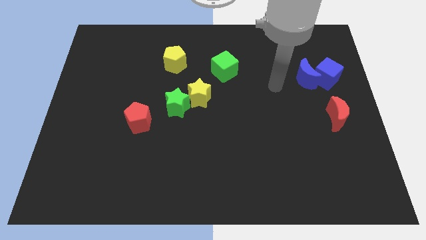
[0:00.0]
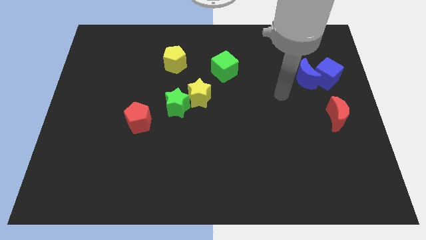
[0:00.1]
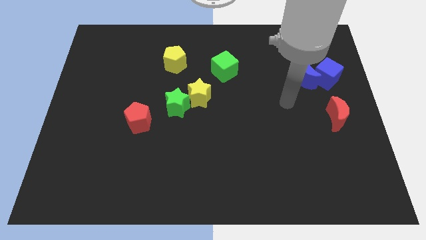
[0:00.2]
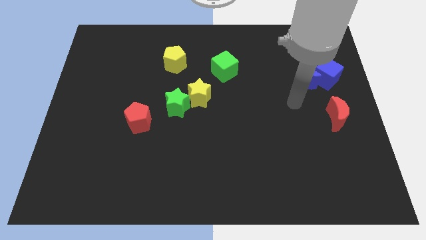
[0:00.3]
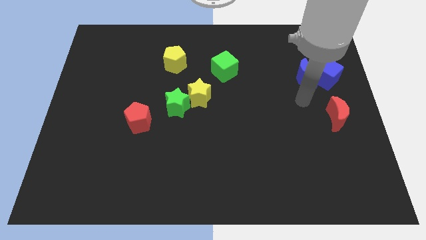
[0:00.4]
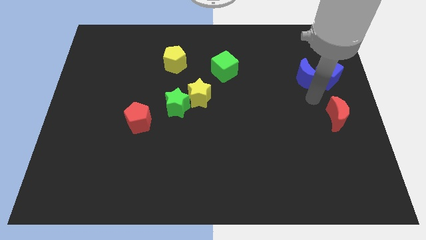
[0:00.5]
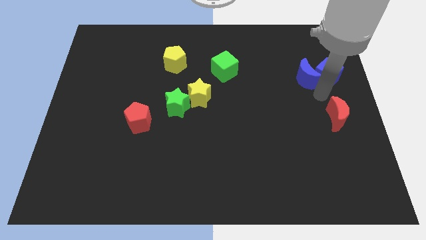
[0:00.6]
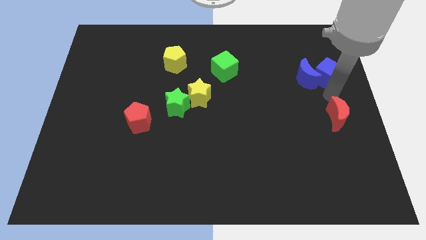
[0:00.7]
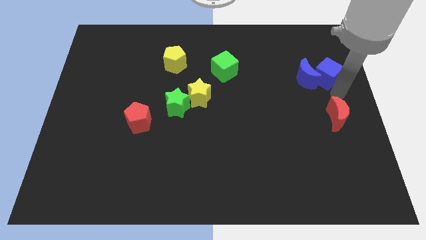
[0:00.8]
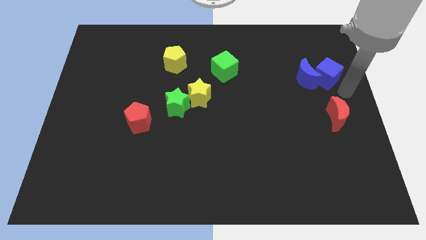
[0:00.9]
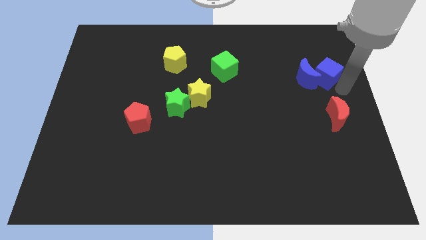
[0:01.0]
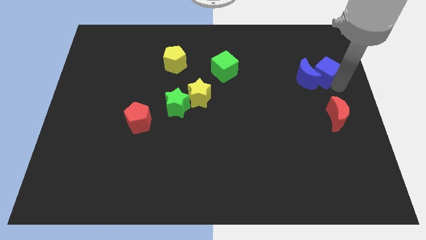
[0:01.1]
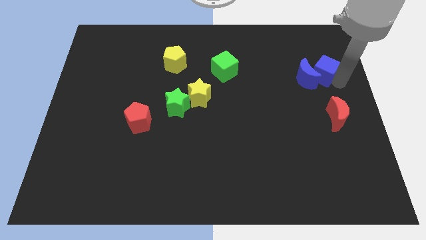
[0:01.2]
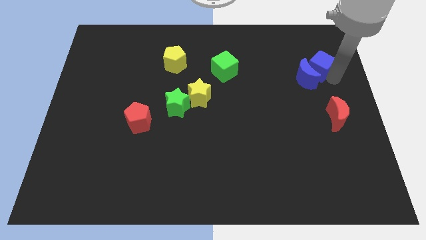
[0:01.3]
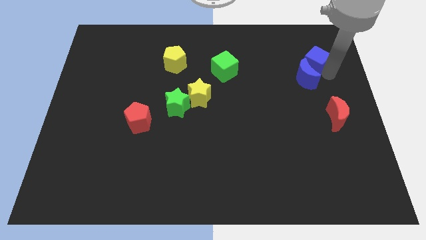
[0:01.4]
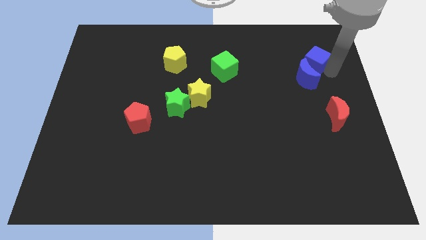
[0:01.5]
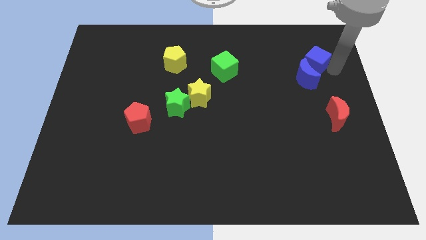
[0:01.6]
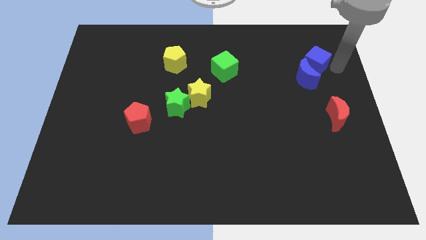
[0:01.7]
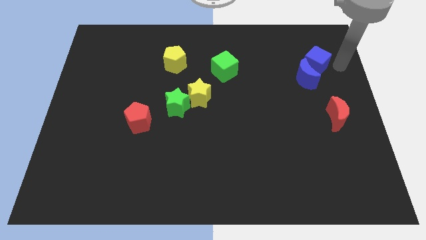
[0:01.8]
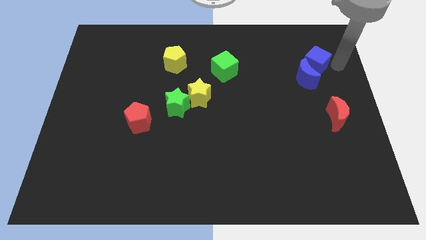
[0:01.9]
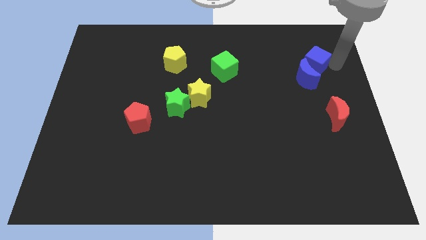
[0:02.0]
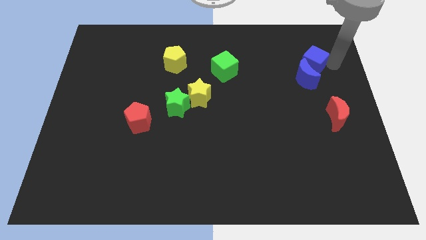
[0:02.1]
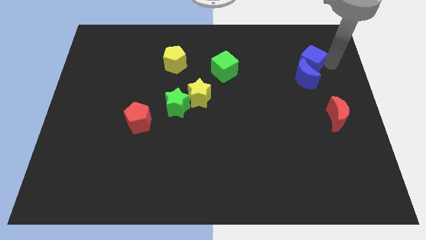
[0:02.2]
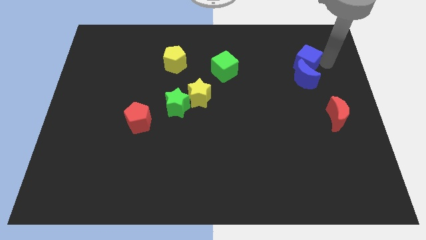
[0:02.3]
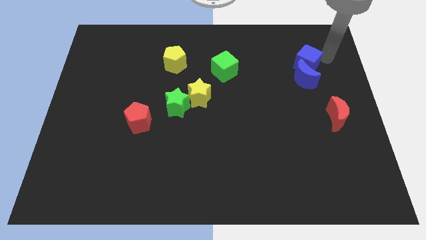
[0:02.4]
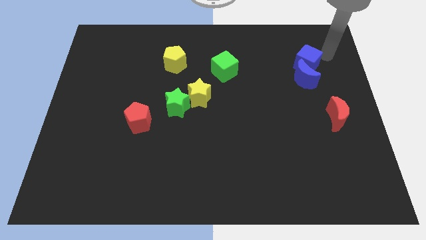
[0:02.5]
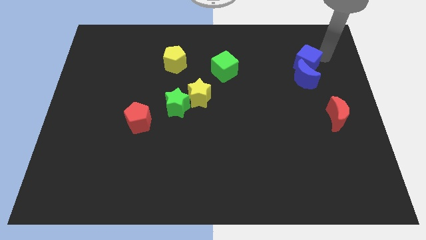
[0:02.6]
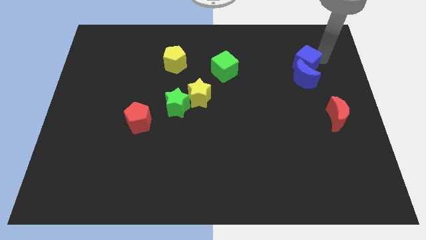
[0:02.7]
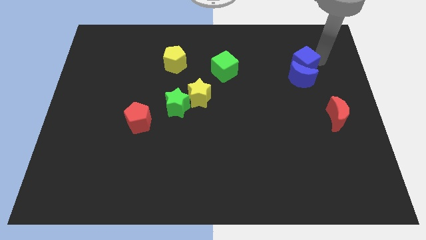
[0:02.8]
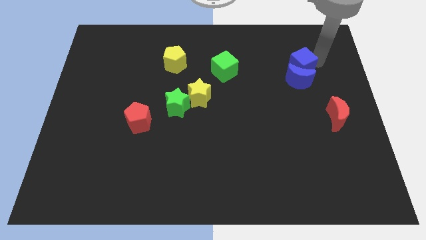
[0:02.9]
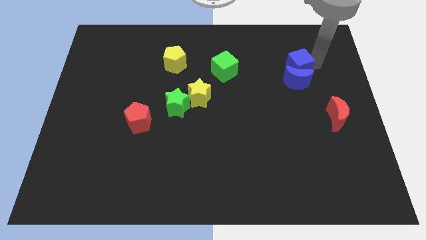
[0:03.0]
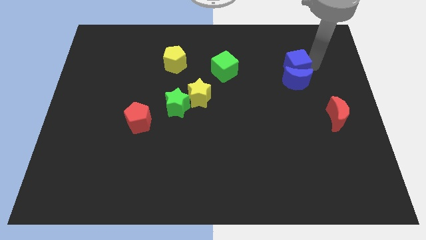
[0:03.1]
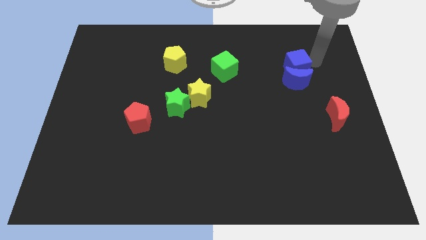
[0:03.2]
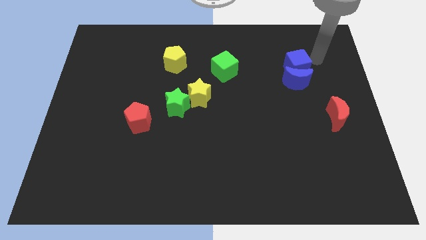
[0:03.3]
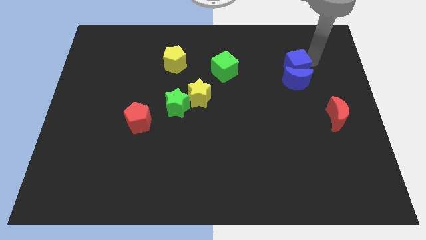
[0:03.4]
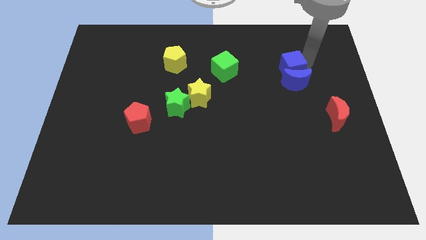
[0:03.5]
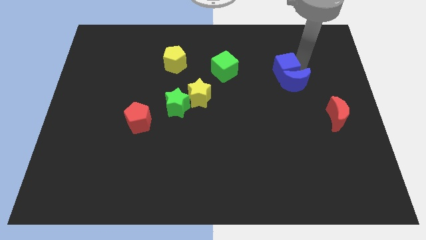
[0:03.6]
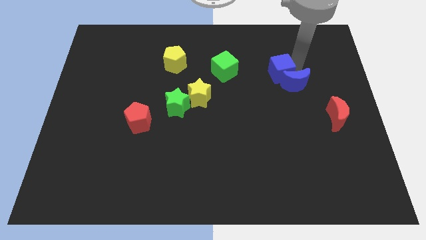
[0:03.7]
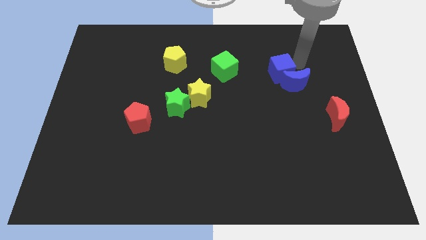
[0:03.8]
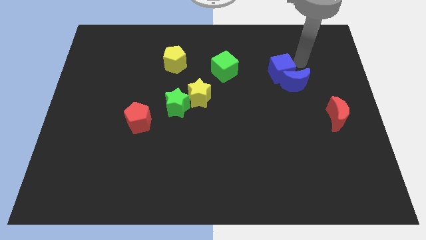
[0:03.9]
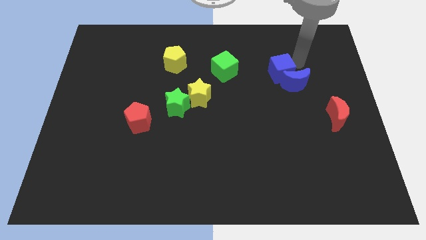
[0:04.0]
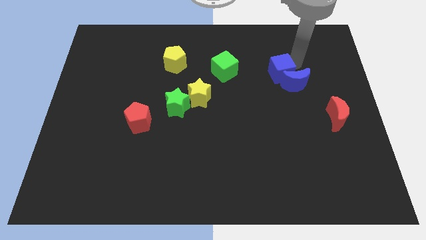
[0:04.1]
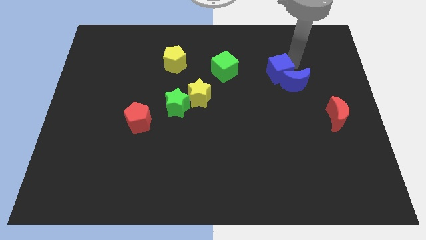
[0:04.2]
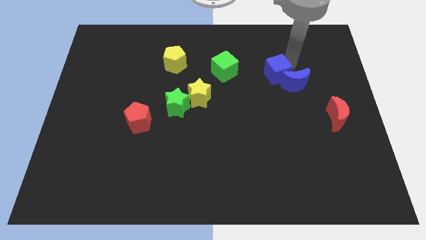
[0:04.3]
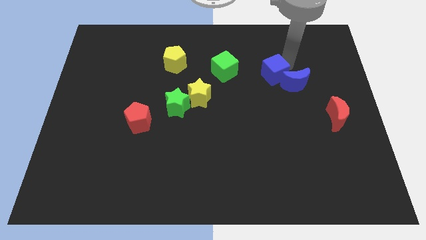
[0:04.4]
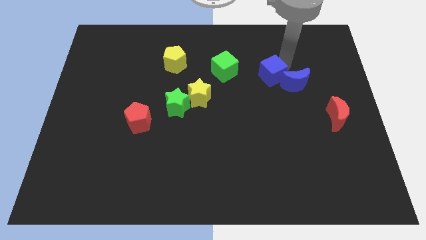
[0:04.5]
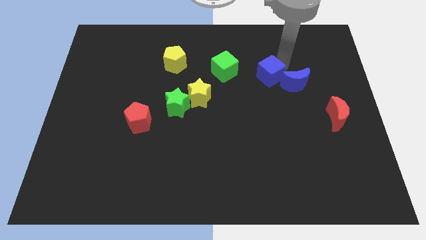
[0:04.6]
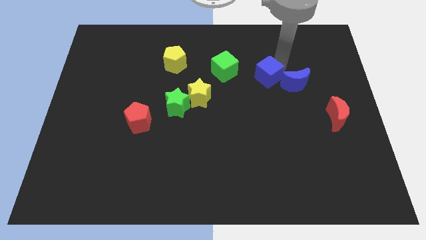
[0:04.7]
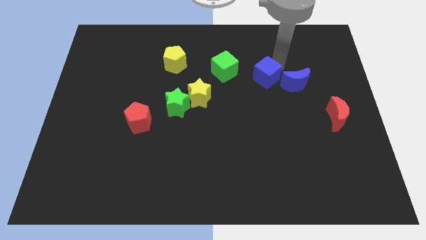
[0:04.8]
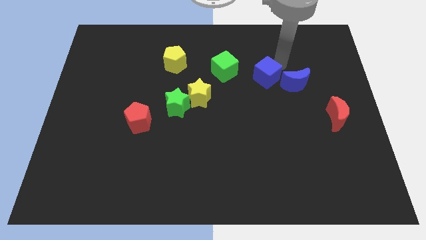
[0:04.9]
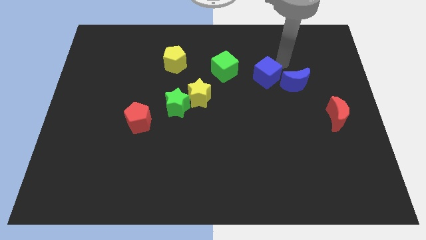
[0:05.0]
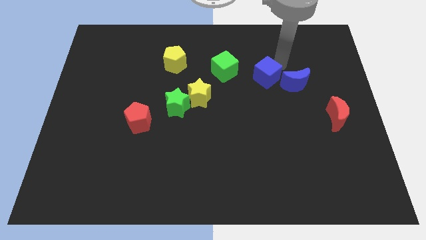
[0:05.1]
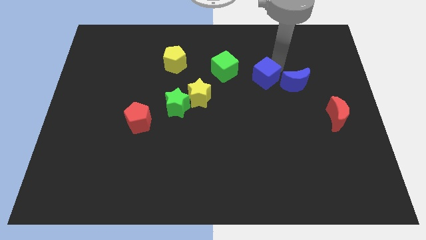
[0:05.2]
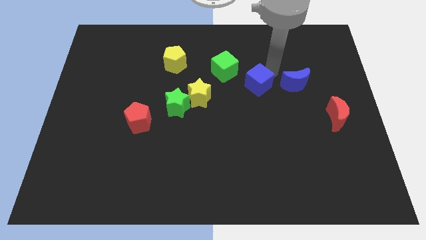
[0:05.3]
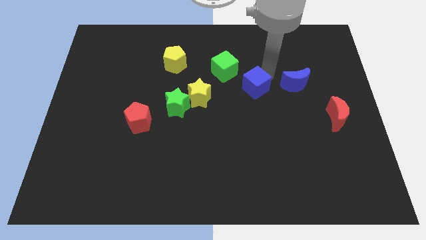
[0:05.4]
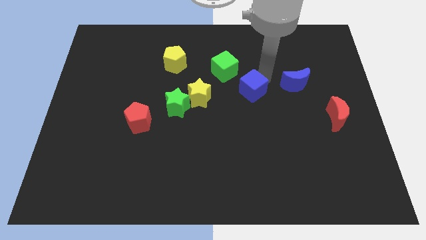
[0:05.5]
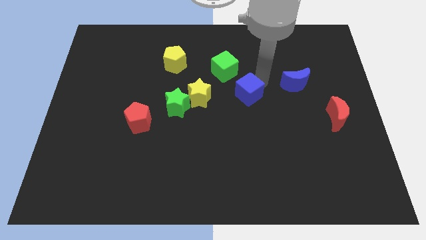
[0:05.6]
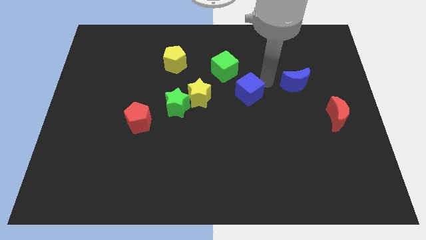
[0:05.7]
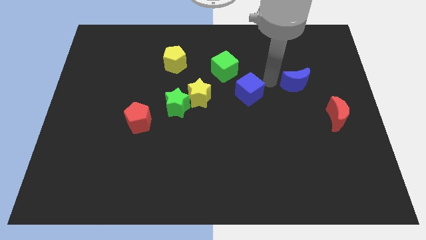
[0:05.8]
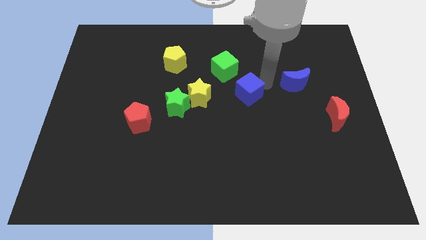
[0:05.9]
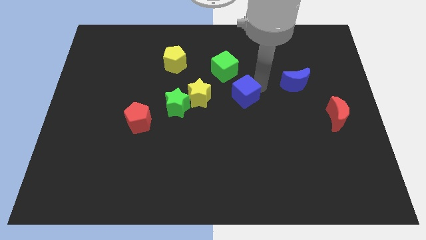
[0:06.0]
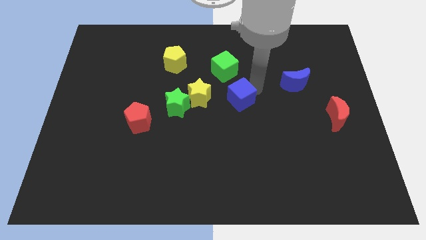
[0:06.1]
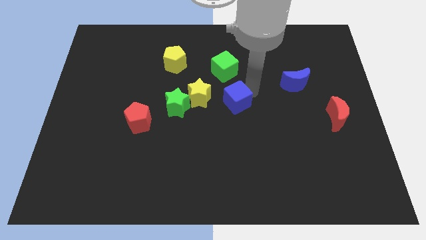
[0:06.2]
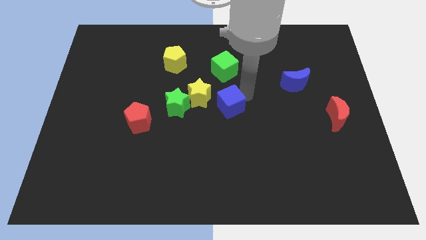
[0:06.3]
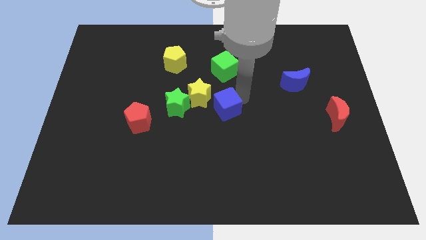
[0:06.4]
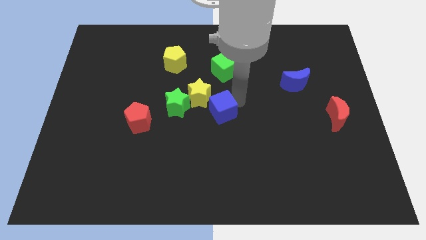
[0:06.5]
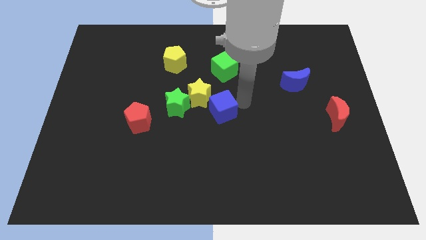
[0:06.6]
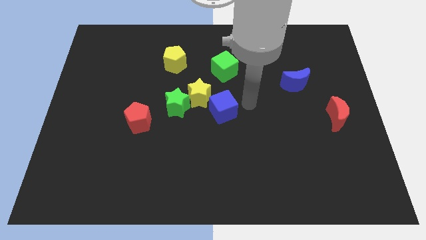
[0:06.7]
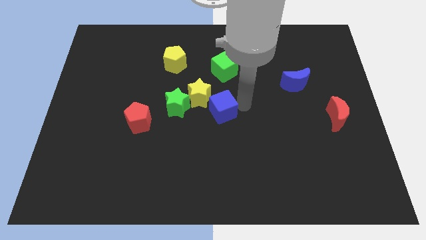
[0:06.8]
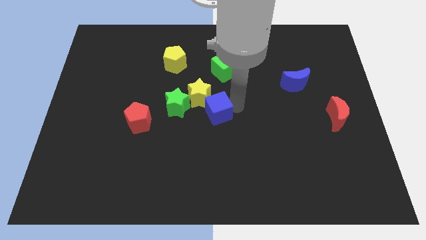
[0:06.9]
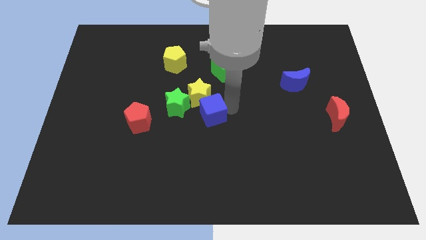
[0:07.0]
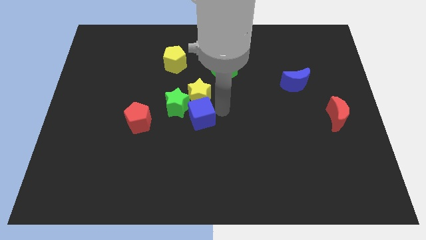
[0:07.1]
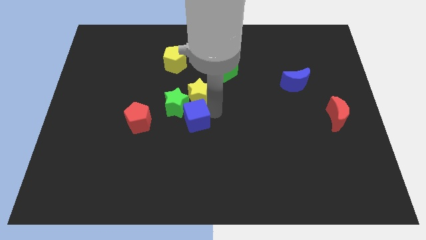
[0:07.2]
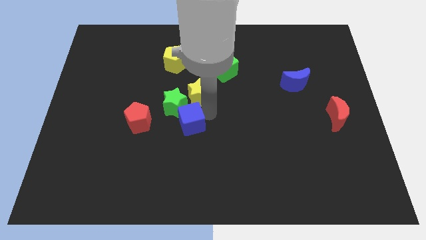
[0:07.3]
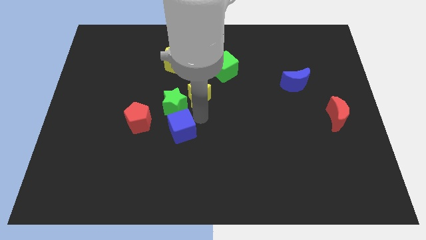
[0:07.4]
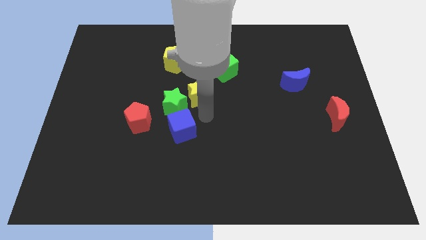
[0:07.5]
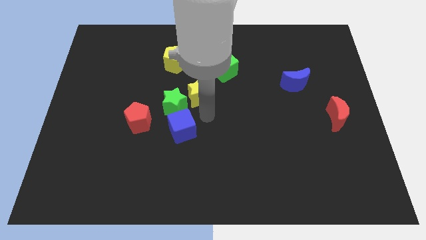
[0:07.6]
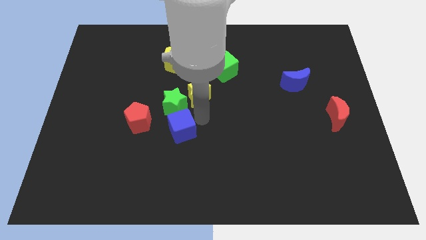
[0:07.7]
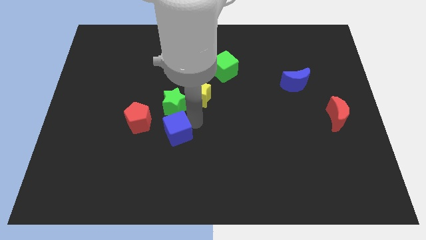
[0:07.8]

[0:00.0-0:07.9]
push the blue cube diagonally down and to the right of the red pentagon
